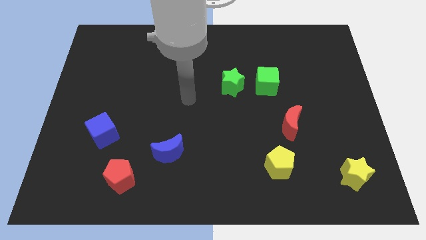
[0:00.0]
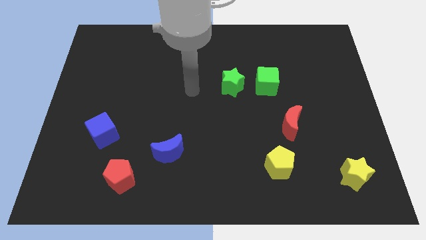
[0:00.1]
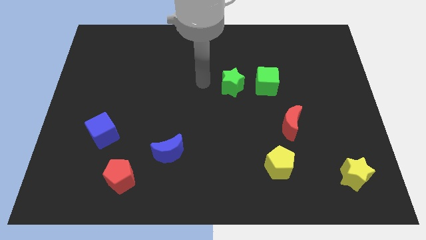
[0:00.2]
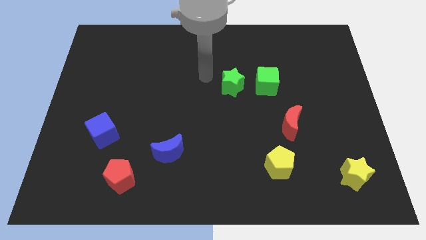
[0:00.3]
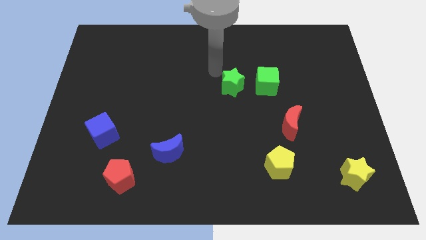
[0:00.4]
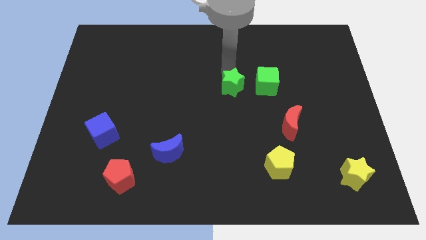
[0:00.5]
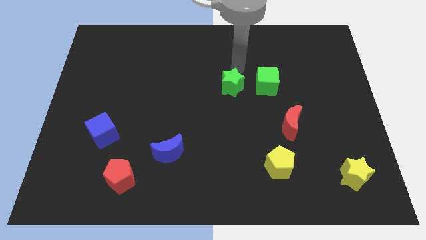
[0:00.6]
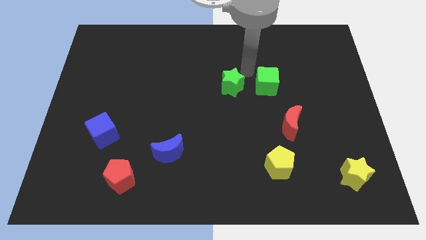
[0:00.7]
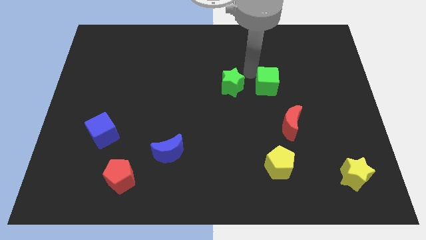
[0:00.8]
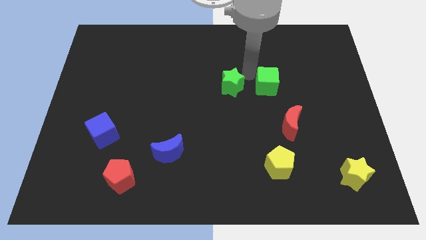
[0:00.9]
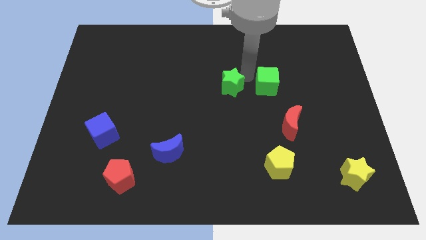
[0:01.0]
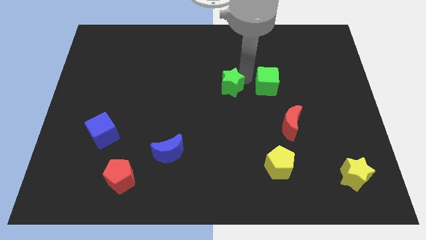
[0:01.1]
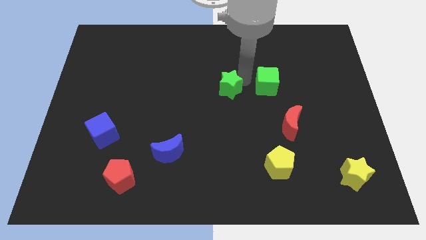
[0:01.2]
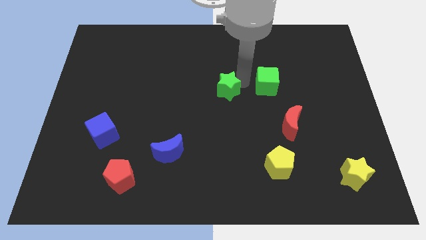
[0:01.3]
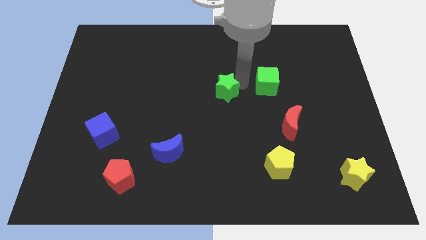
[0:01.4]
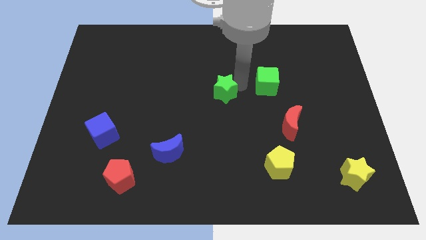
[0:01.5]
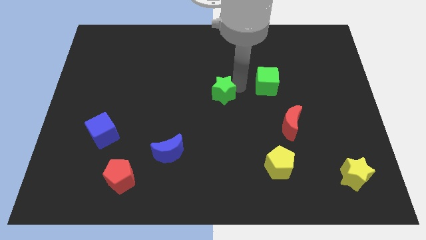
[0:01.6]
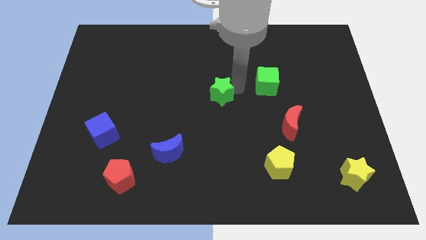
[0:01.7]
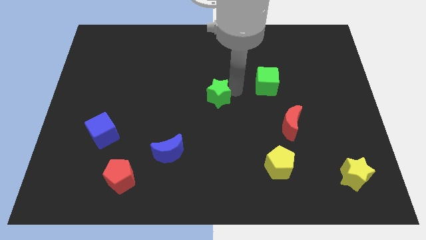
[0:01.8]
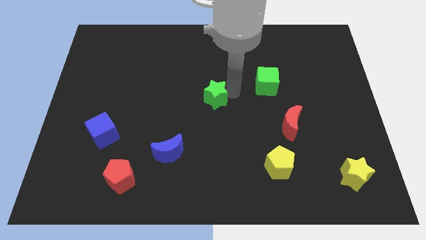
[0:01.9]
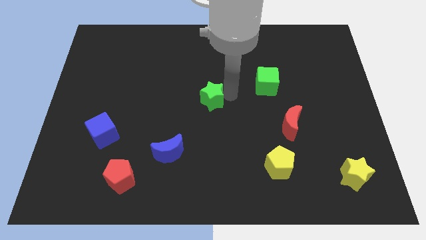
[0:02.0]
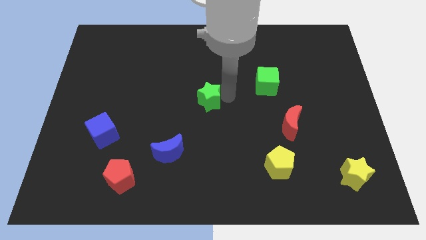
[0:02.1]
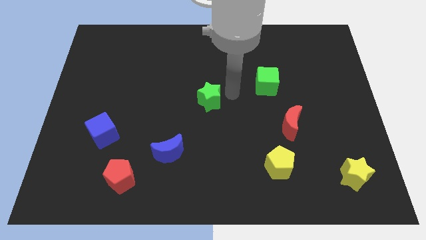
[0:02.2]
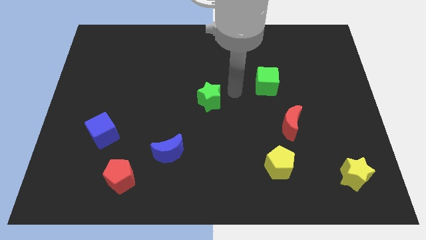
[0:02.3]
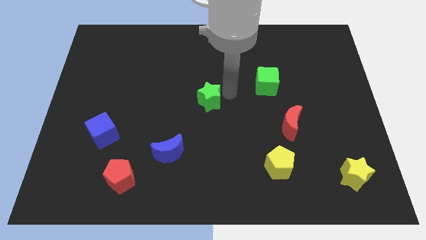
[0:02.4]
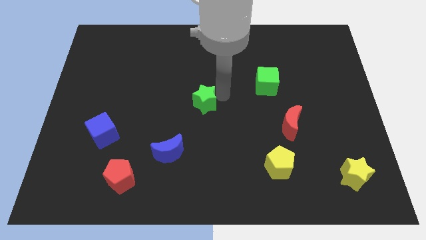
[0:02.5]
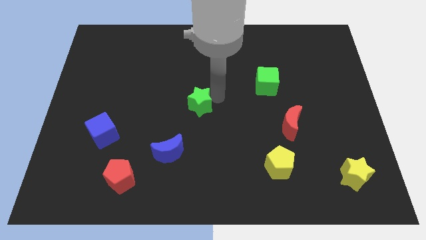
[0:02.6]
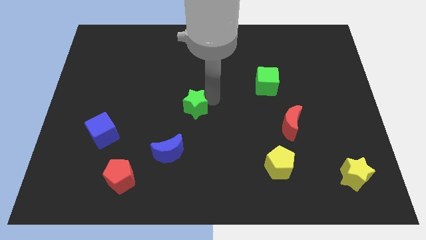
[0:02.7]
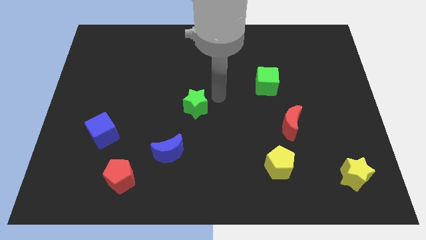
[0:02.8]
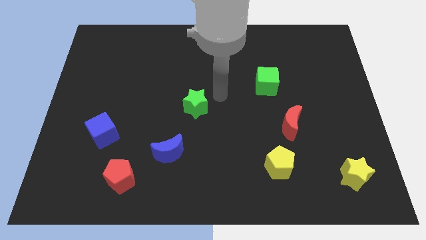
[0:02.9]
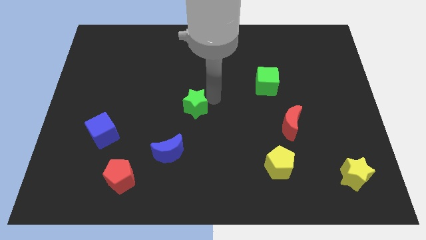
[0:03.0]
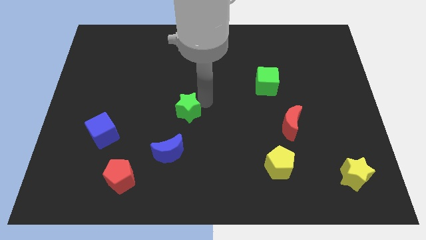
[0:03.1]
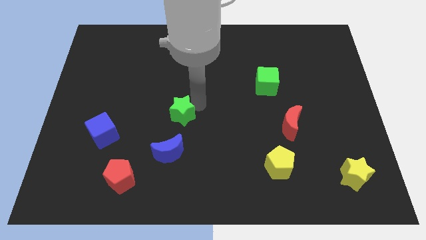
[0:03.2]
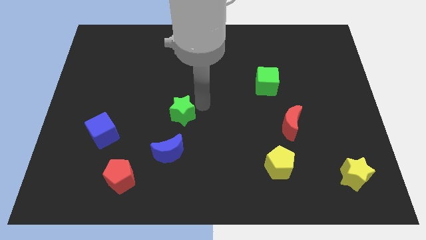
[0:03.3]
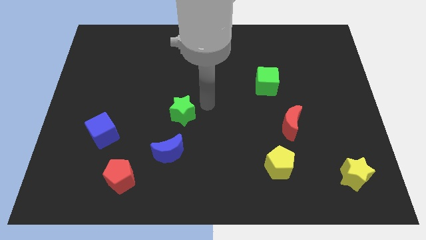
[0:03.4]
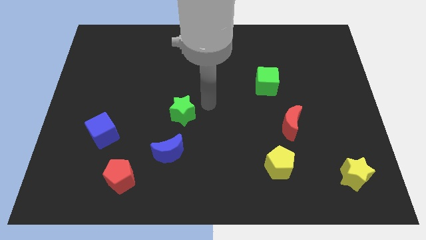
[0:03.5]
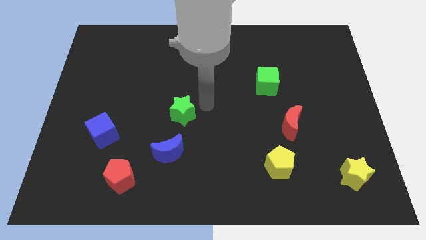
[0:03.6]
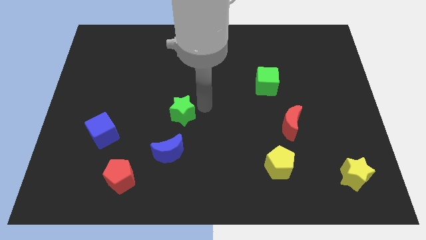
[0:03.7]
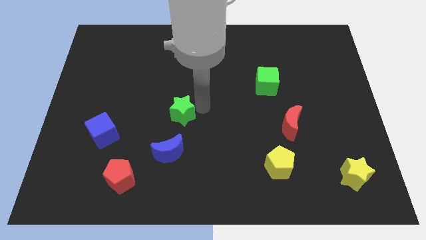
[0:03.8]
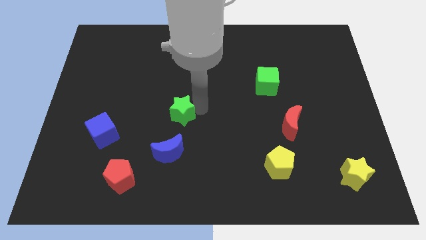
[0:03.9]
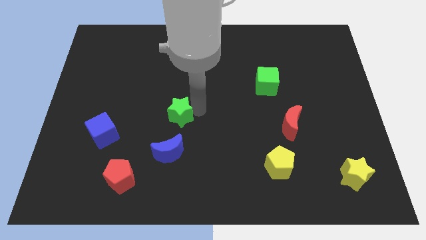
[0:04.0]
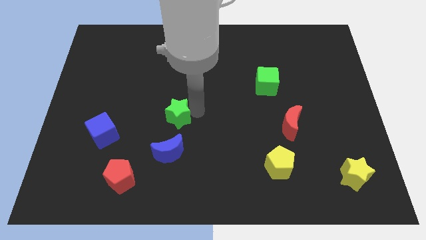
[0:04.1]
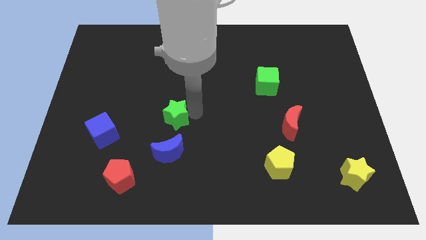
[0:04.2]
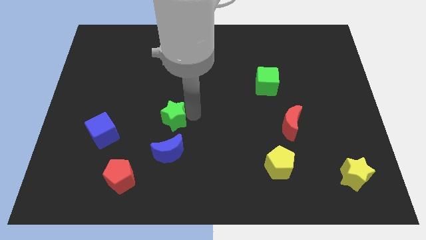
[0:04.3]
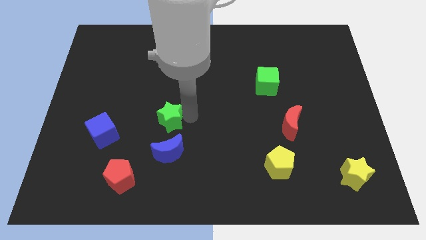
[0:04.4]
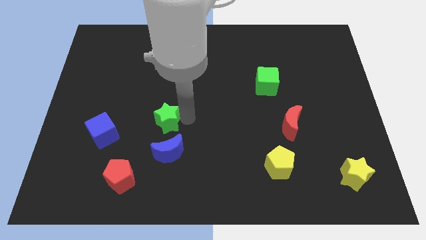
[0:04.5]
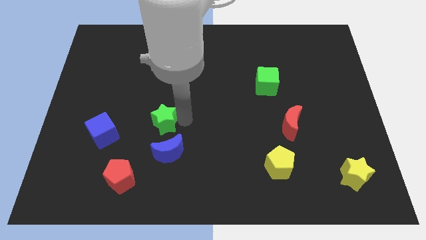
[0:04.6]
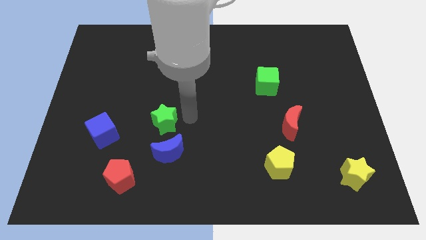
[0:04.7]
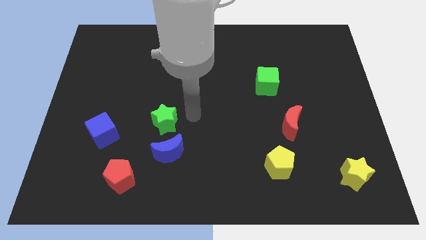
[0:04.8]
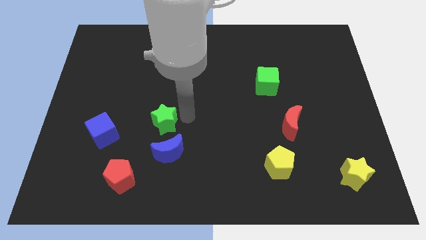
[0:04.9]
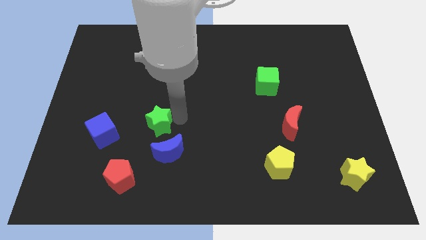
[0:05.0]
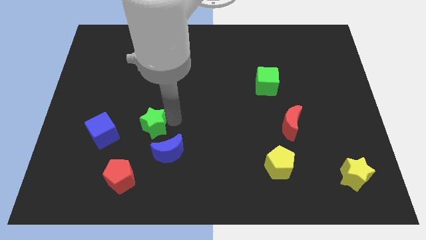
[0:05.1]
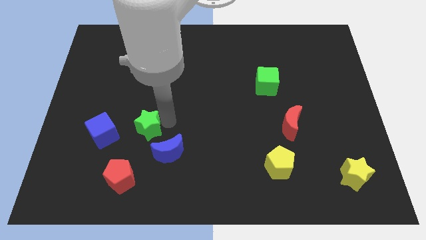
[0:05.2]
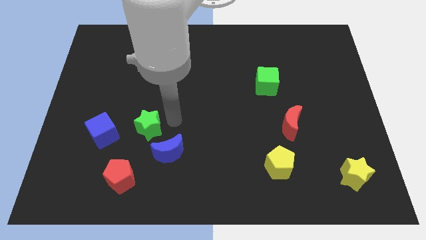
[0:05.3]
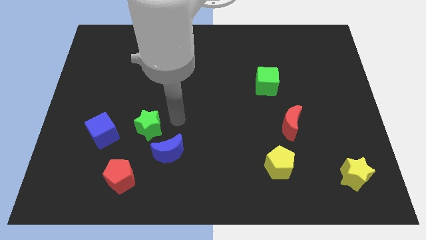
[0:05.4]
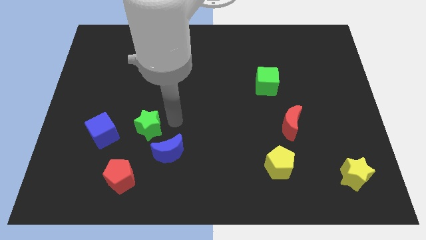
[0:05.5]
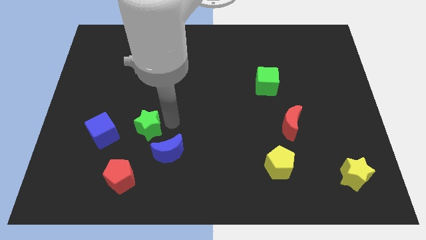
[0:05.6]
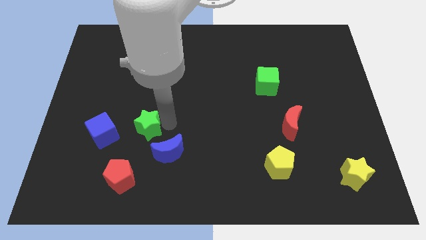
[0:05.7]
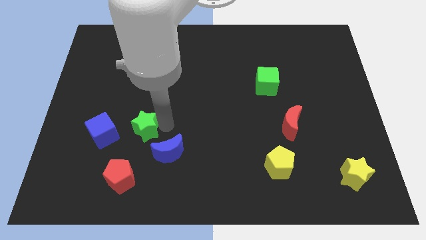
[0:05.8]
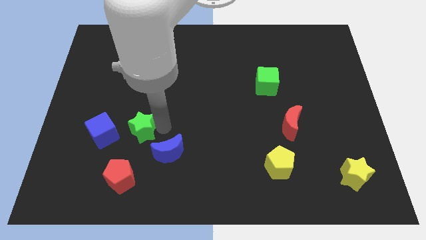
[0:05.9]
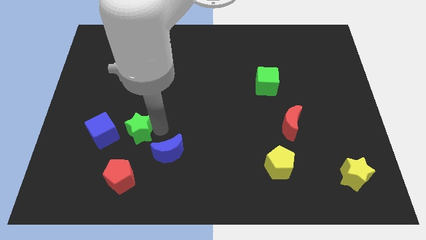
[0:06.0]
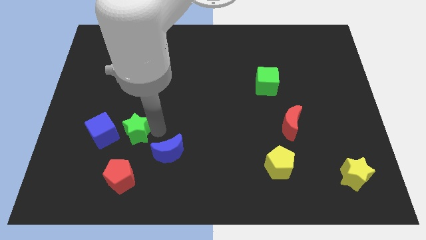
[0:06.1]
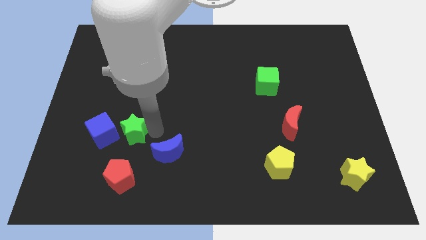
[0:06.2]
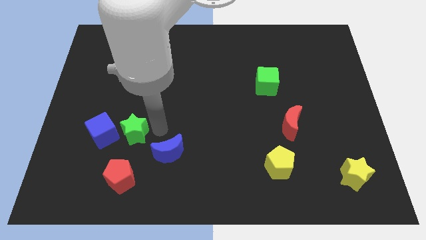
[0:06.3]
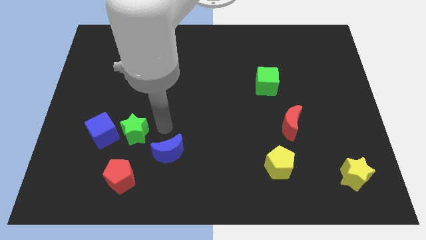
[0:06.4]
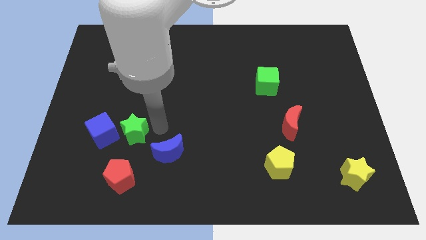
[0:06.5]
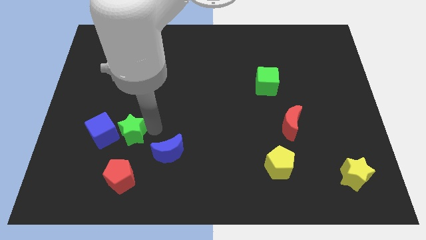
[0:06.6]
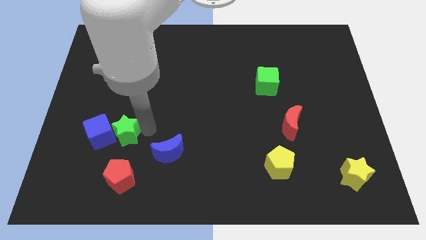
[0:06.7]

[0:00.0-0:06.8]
put the green star next to the blue cube
